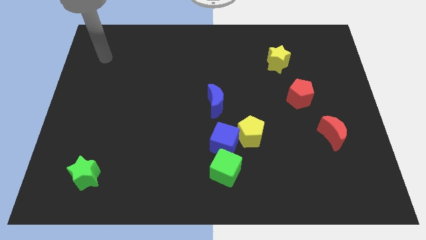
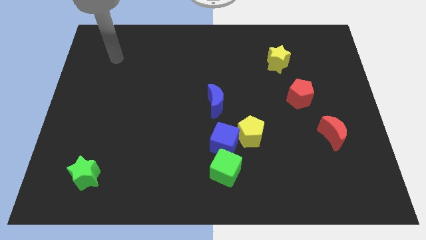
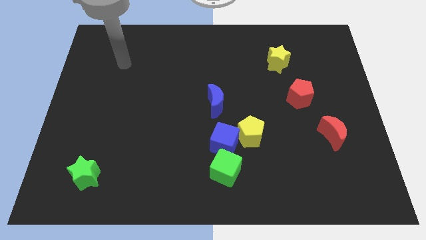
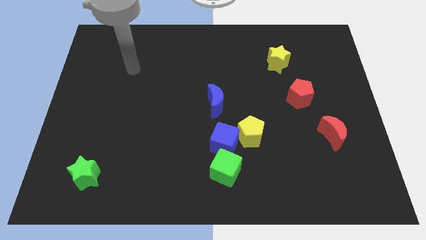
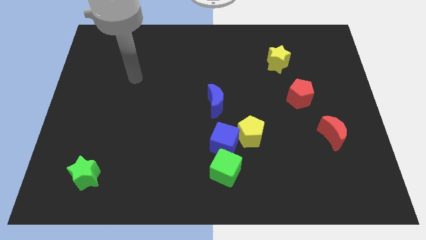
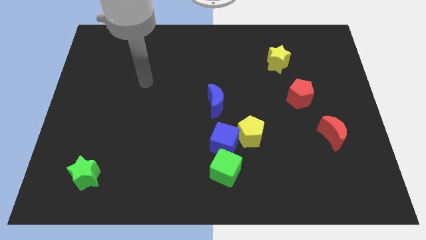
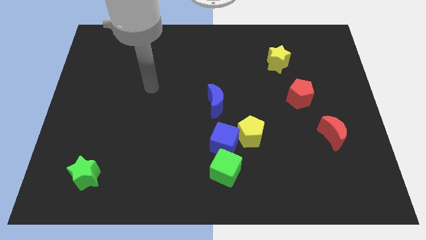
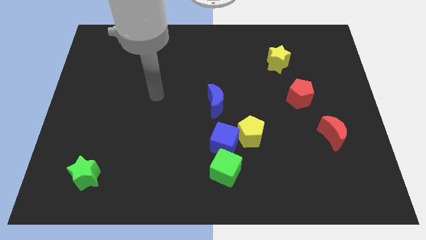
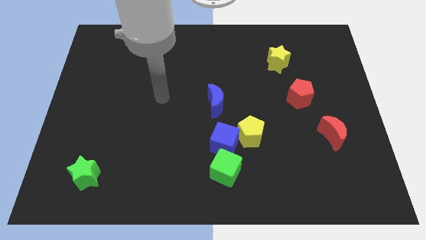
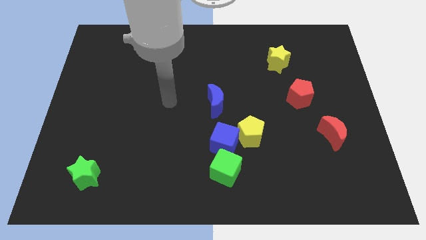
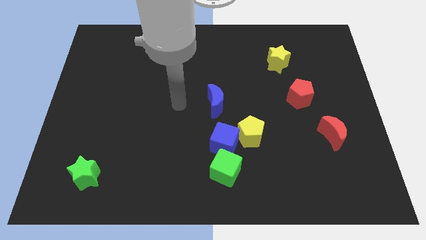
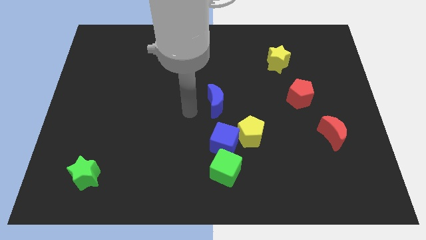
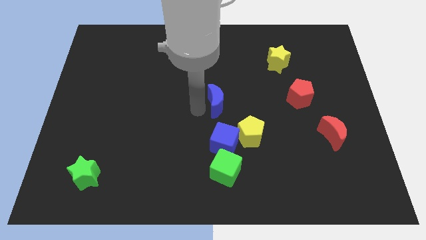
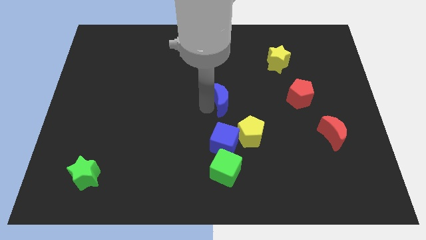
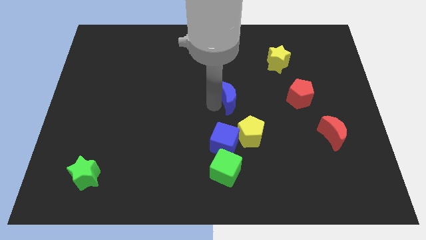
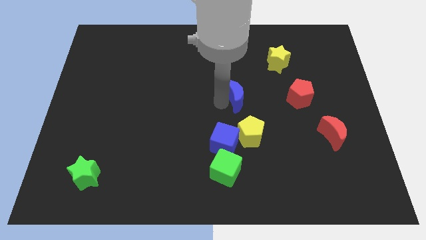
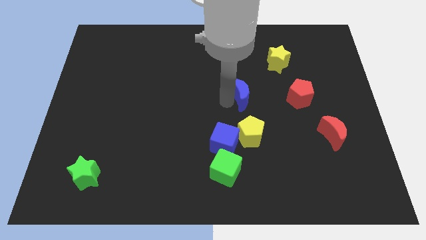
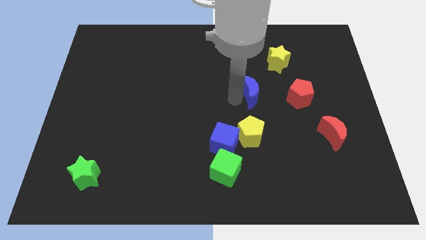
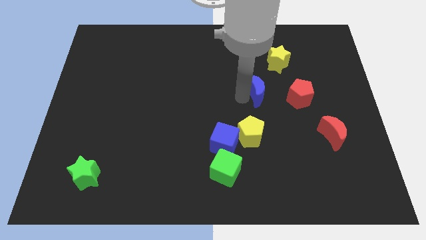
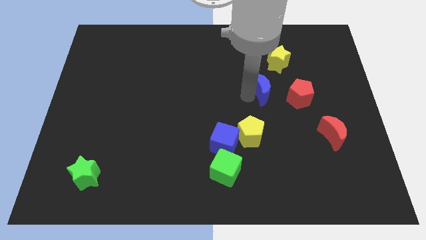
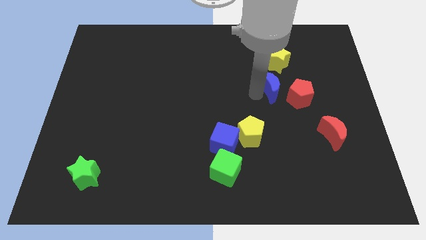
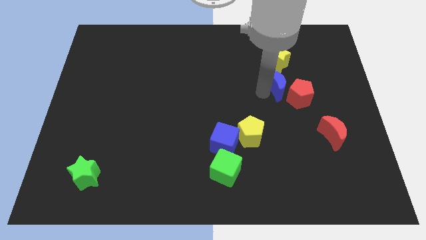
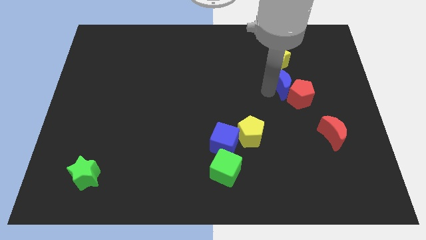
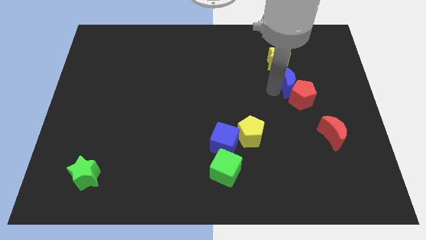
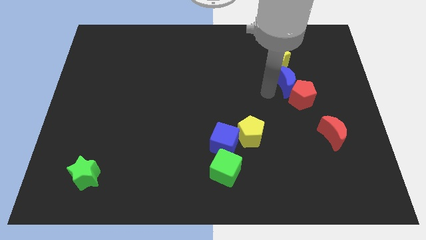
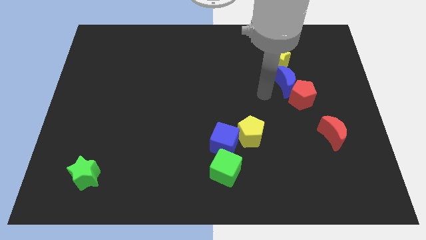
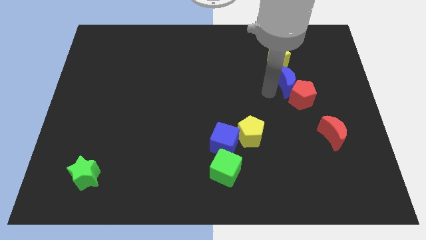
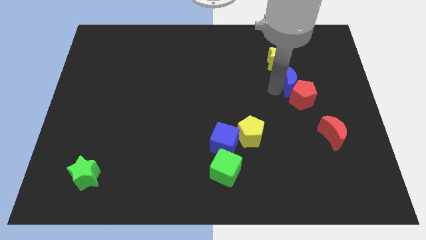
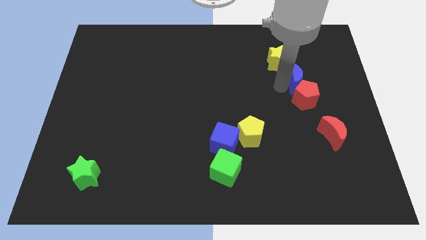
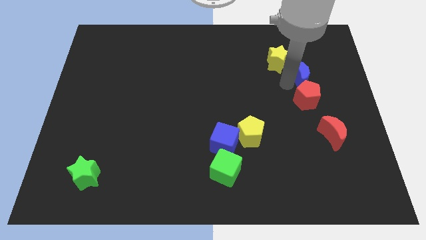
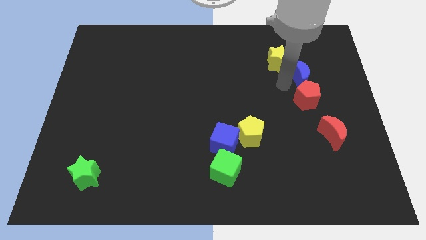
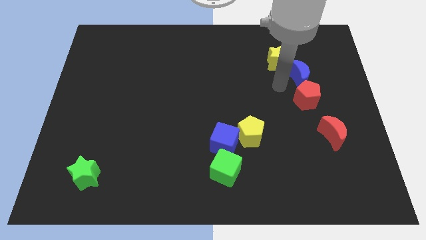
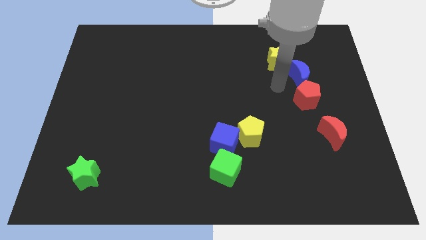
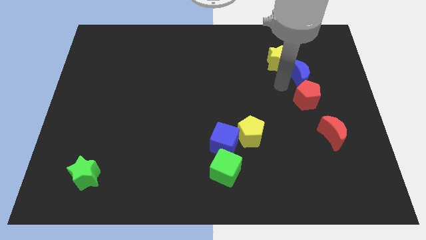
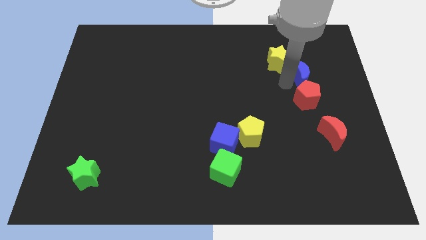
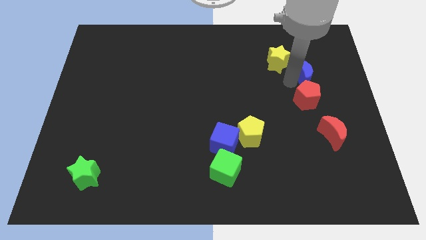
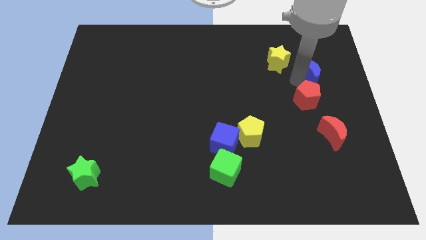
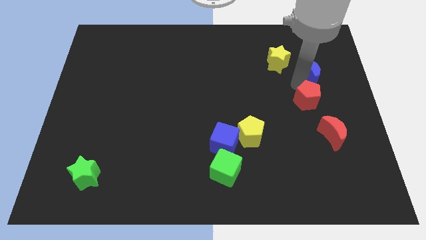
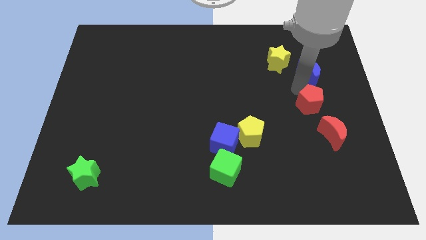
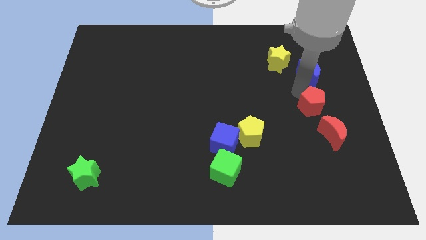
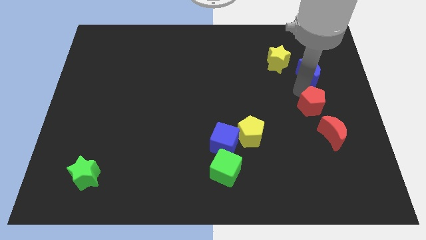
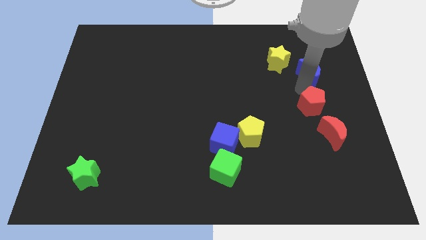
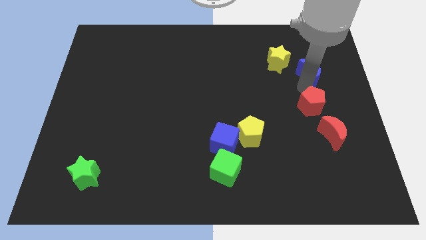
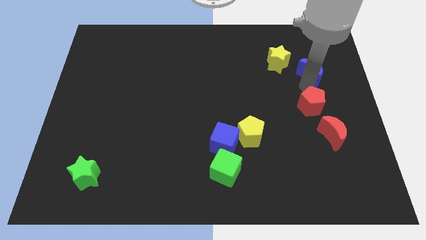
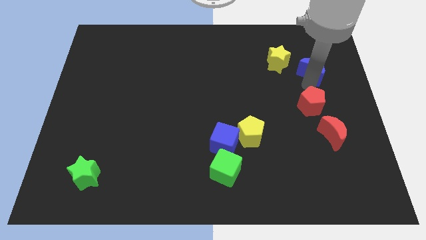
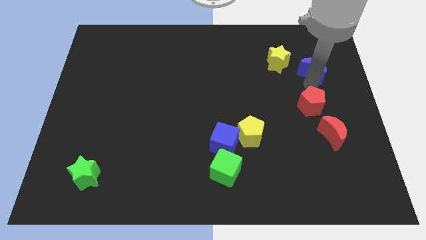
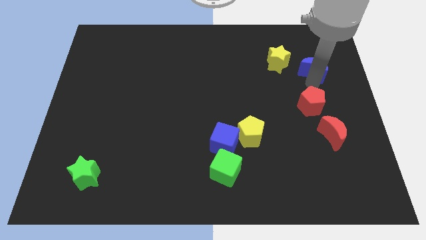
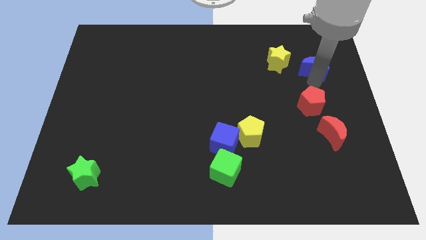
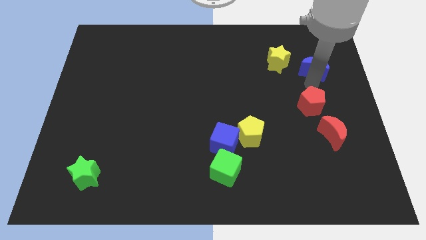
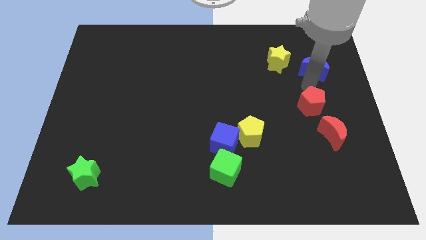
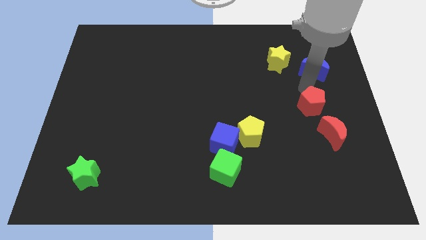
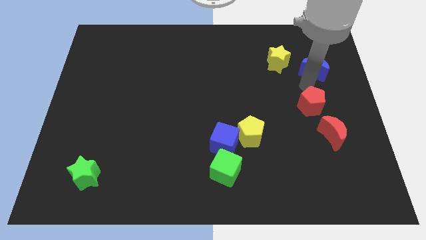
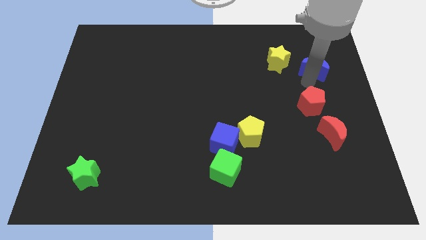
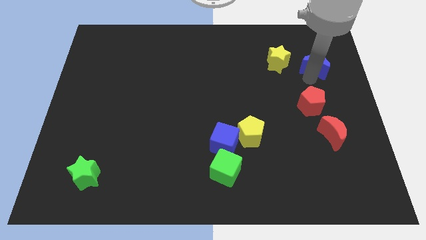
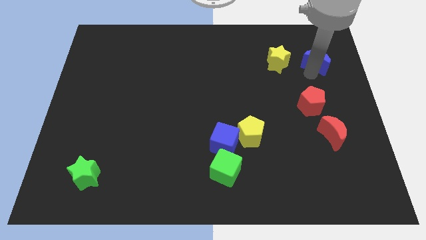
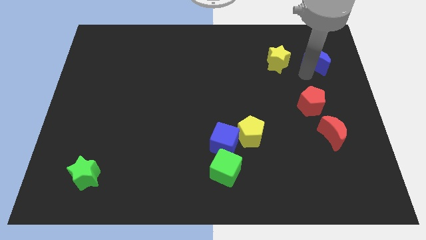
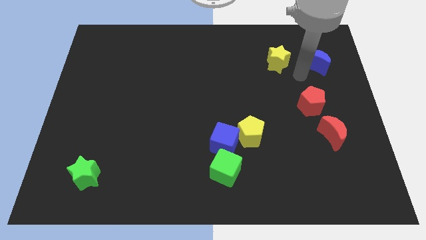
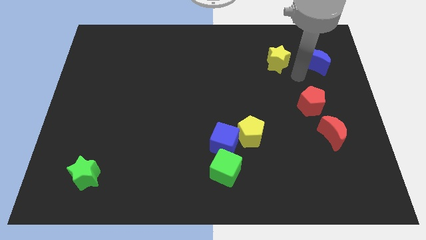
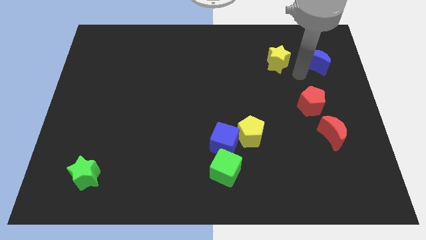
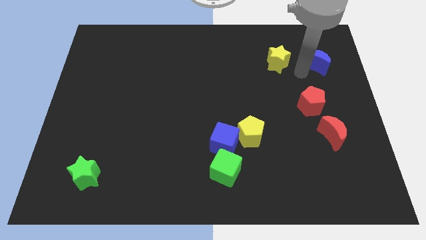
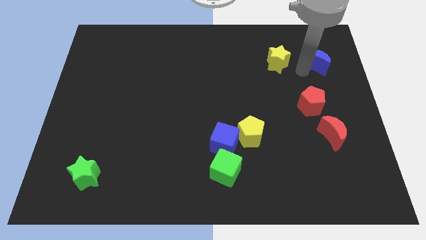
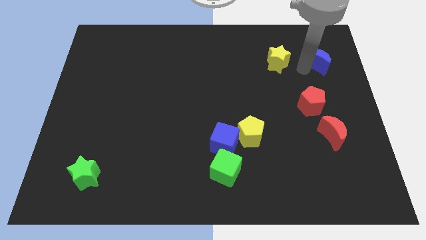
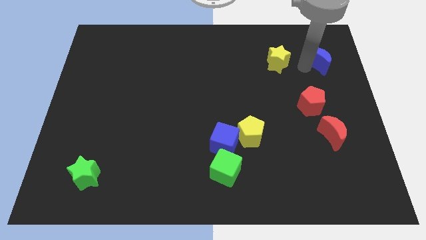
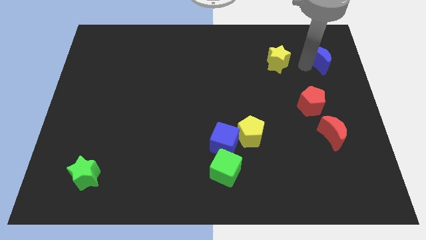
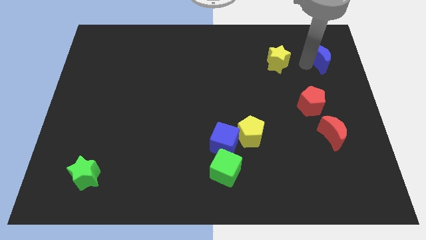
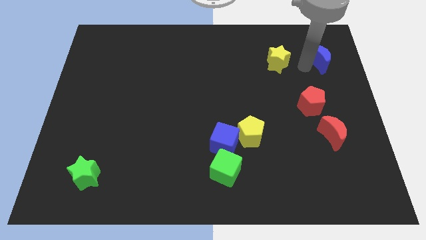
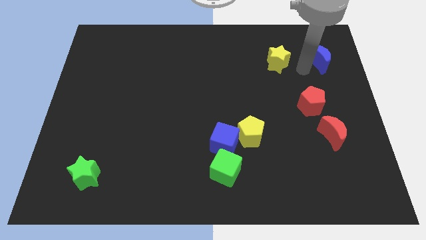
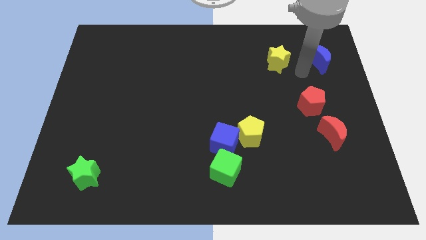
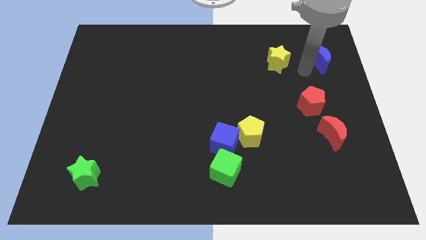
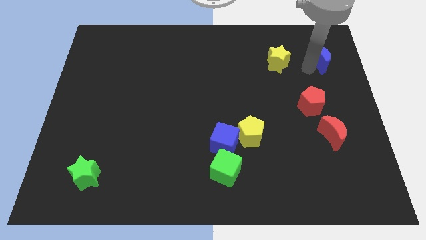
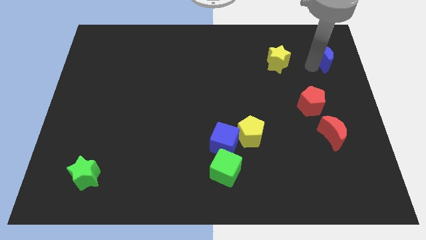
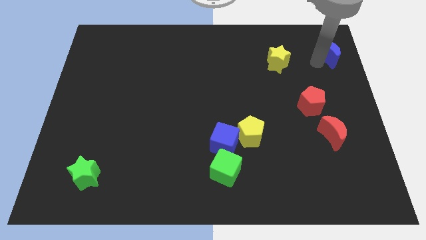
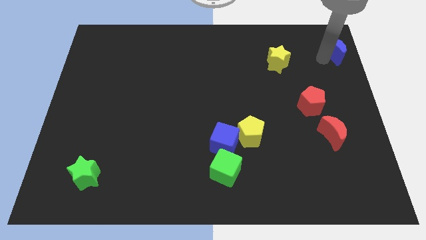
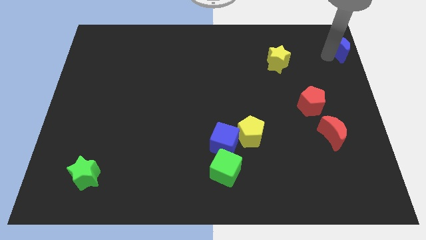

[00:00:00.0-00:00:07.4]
move the blue moon to the upper right corner
